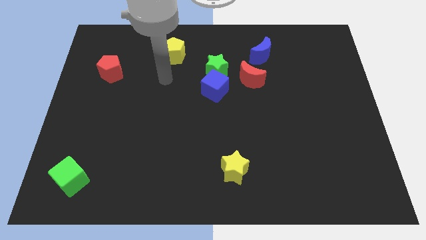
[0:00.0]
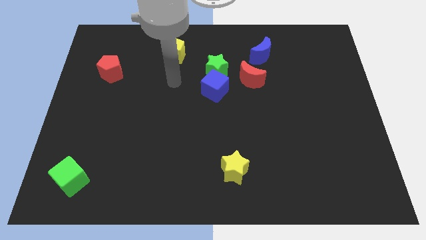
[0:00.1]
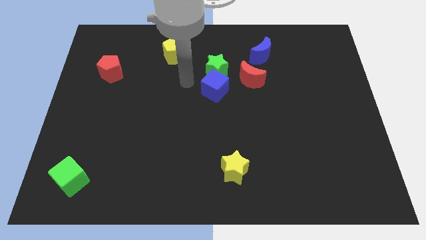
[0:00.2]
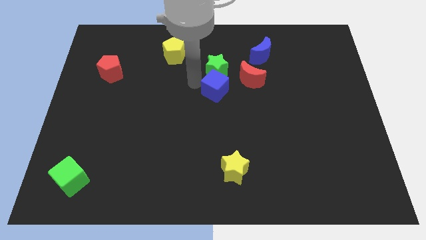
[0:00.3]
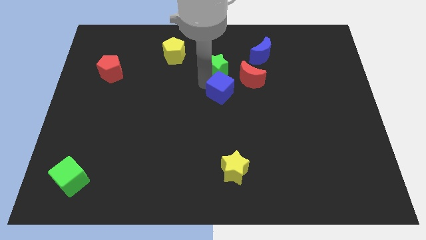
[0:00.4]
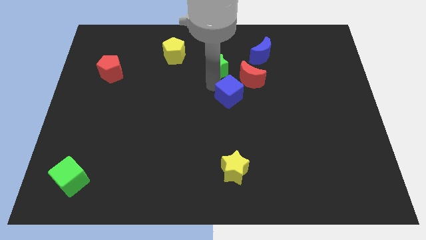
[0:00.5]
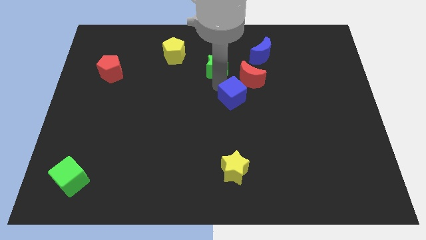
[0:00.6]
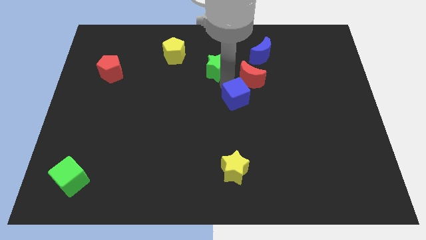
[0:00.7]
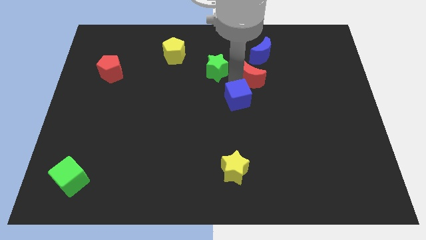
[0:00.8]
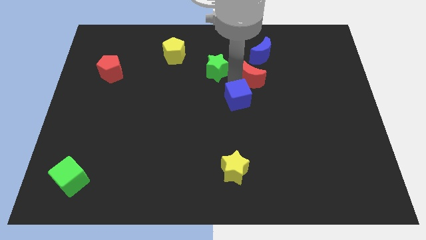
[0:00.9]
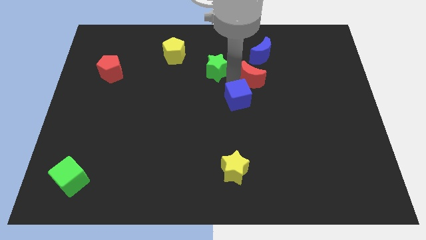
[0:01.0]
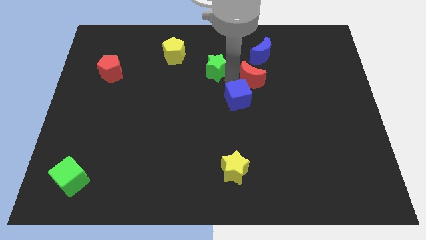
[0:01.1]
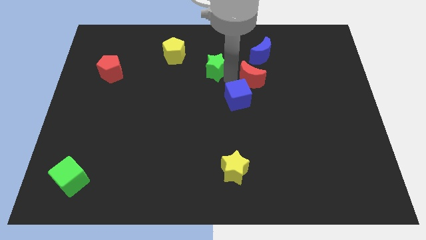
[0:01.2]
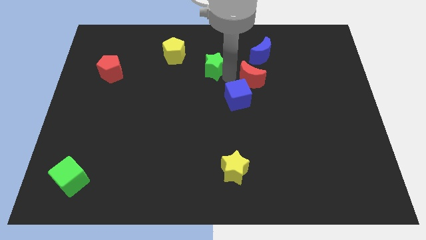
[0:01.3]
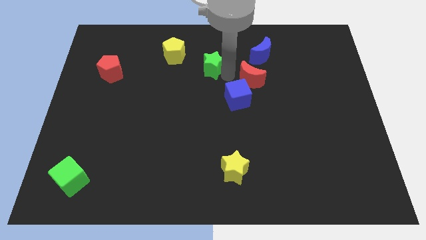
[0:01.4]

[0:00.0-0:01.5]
pull the green star apart from the blue cube and red moon

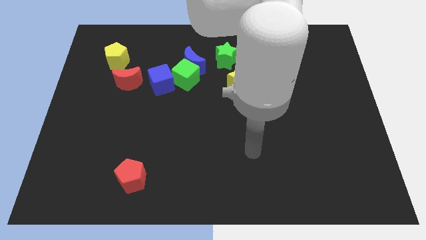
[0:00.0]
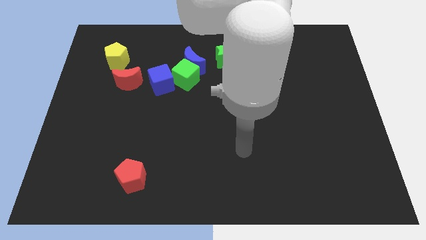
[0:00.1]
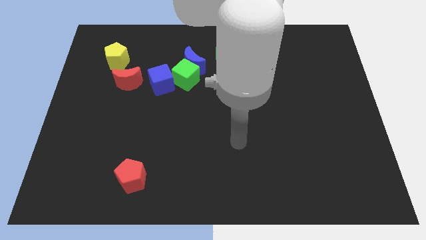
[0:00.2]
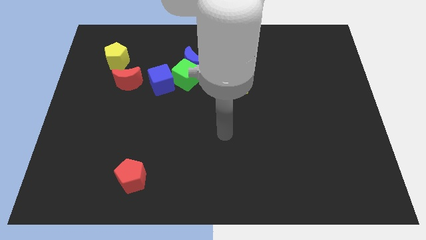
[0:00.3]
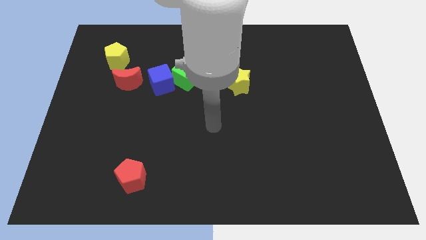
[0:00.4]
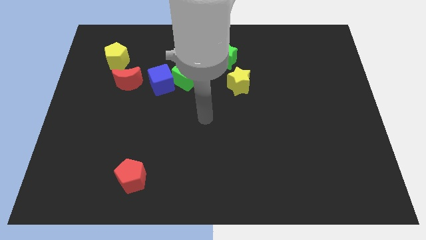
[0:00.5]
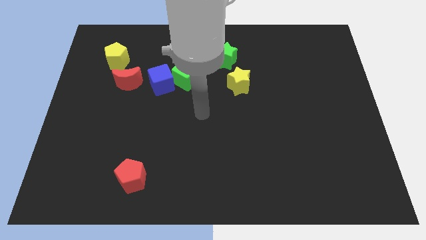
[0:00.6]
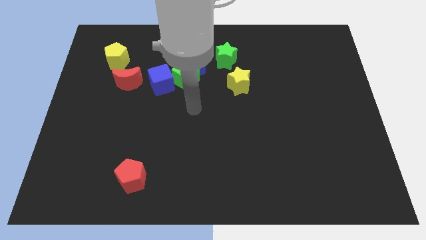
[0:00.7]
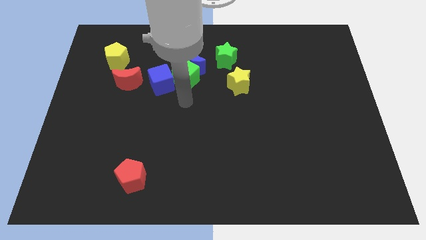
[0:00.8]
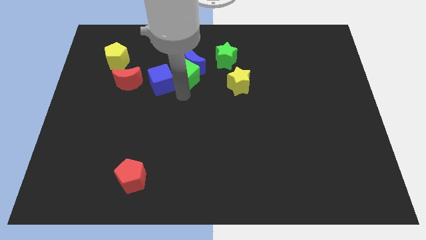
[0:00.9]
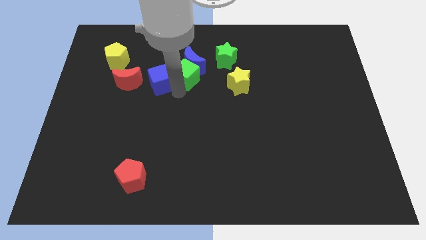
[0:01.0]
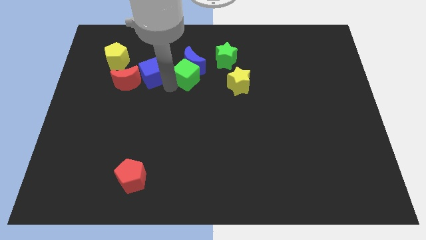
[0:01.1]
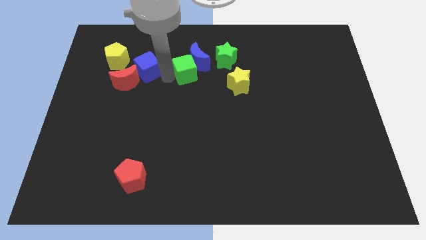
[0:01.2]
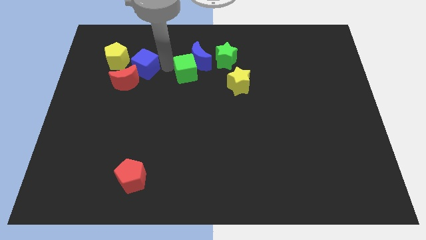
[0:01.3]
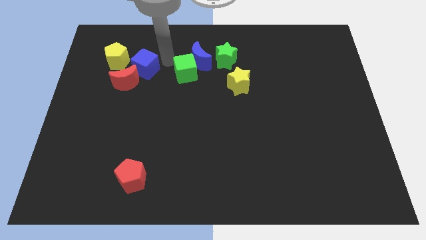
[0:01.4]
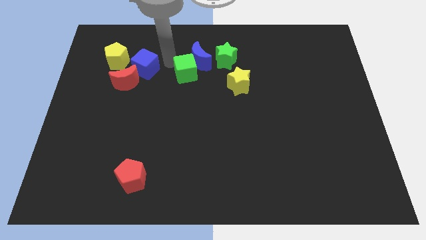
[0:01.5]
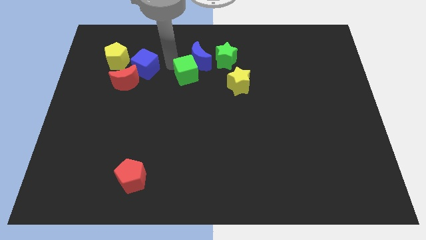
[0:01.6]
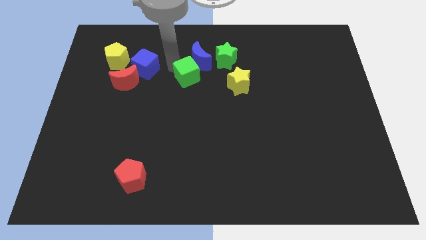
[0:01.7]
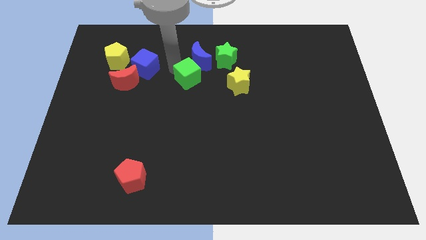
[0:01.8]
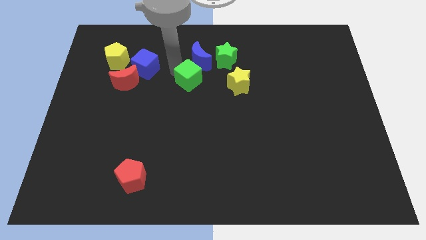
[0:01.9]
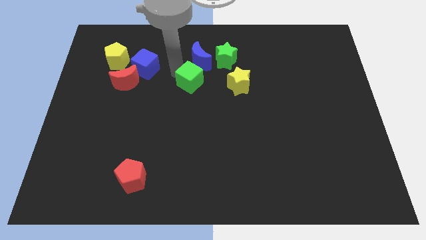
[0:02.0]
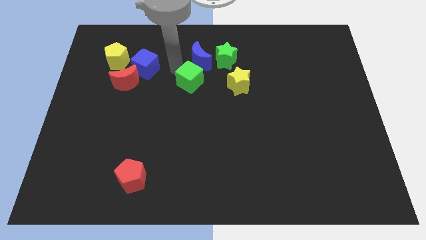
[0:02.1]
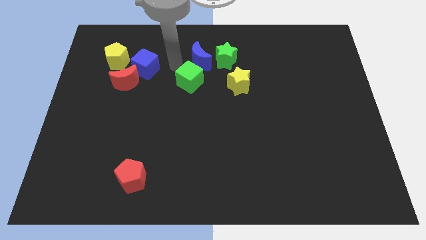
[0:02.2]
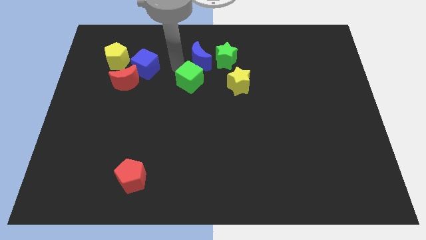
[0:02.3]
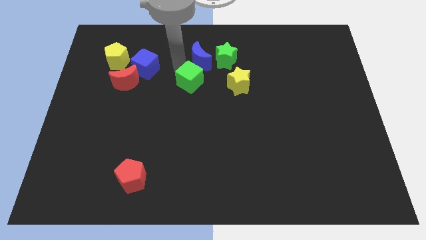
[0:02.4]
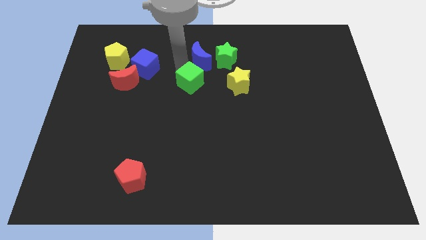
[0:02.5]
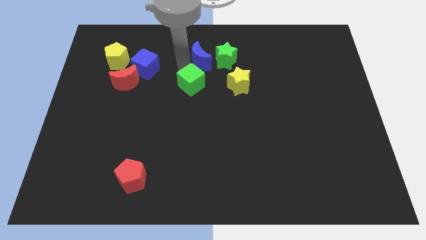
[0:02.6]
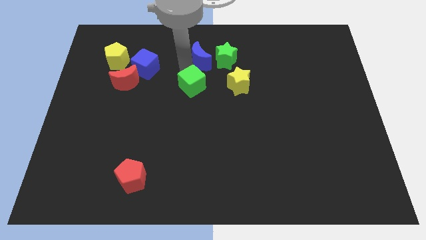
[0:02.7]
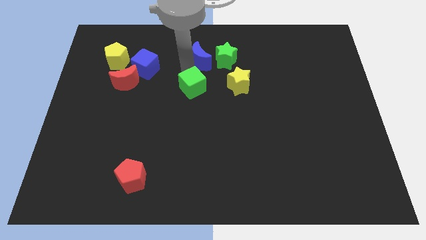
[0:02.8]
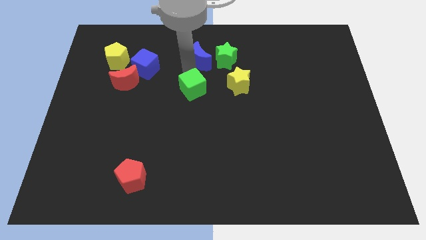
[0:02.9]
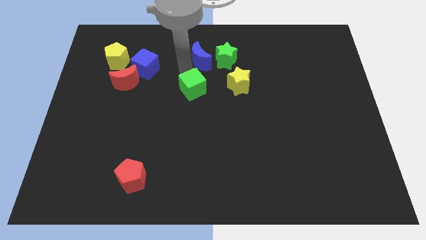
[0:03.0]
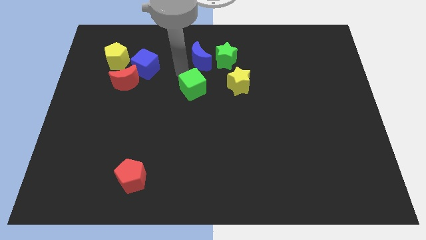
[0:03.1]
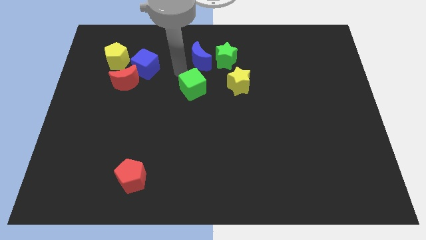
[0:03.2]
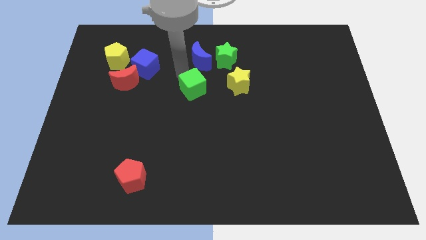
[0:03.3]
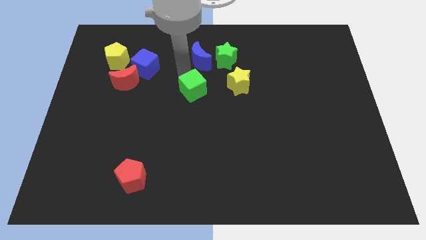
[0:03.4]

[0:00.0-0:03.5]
pull the green cube apart from the blue moon and blue cube

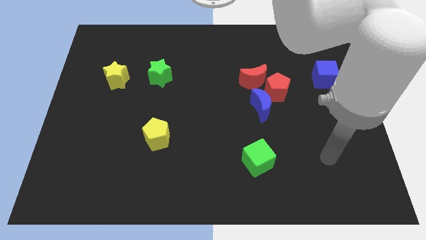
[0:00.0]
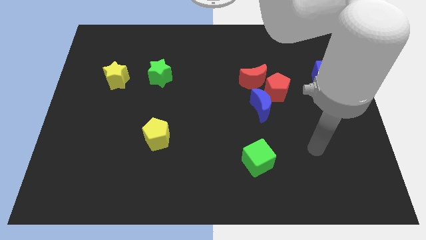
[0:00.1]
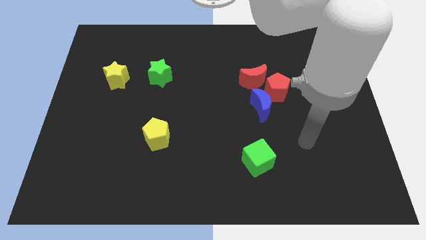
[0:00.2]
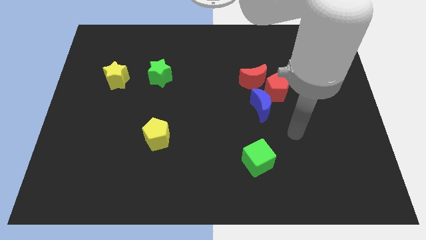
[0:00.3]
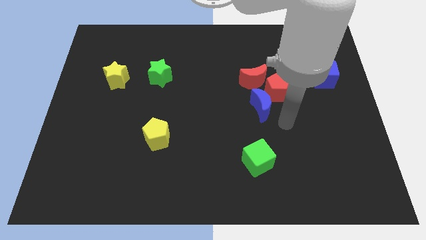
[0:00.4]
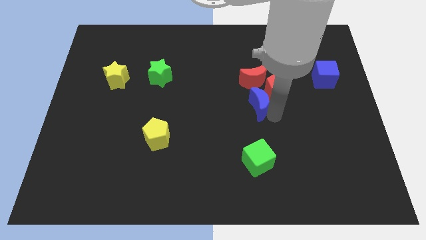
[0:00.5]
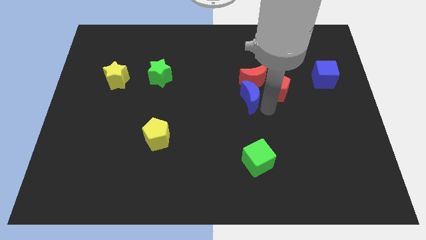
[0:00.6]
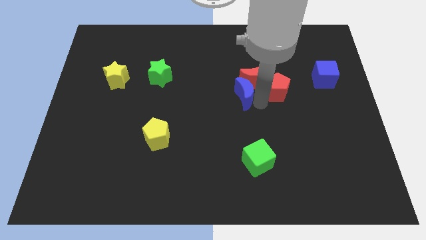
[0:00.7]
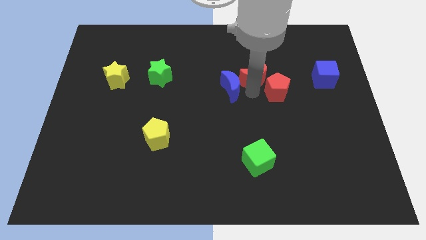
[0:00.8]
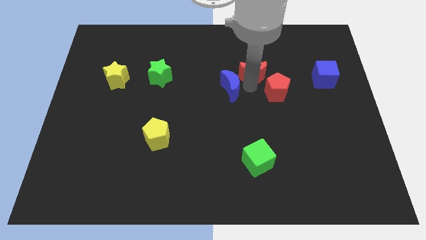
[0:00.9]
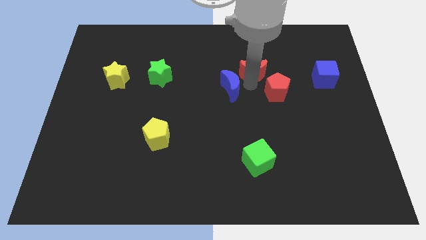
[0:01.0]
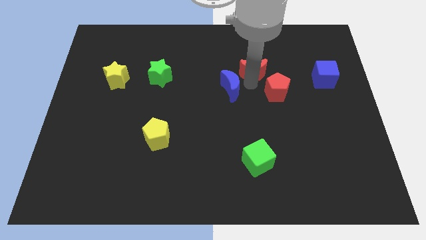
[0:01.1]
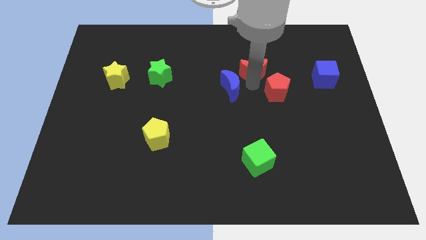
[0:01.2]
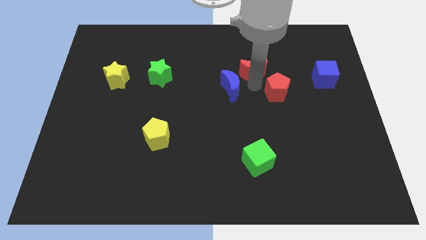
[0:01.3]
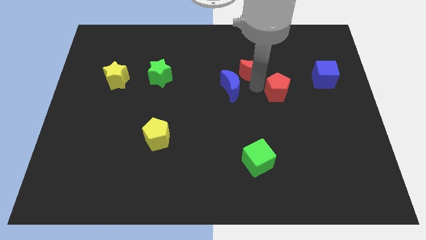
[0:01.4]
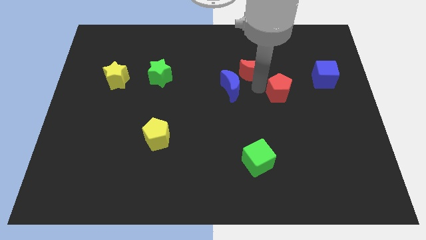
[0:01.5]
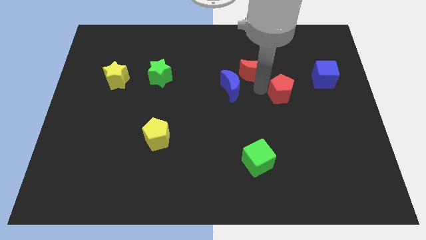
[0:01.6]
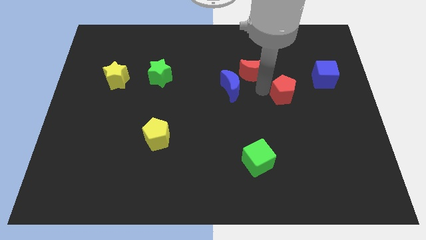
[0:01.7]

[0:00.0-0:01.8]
pull the red pentagon apart from the red moon and blue moon

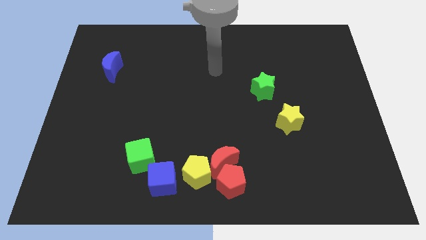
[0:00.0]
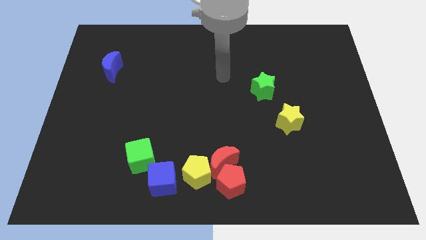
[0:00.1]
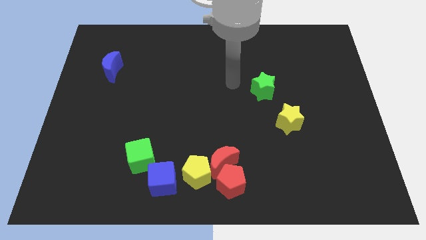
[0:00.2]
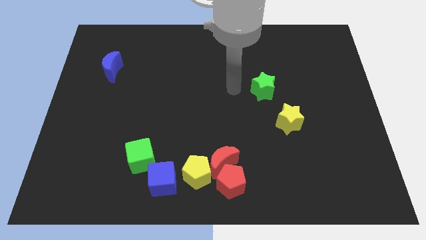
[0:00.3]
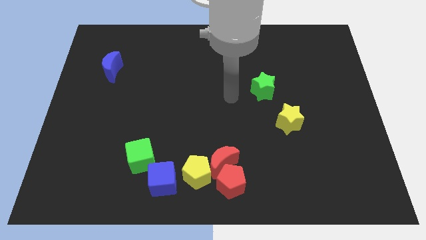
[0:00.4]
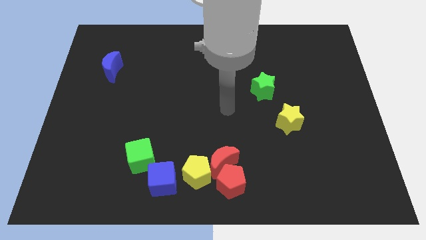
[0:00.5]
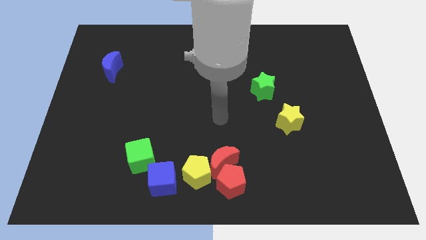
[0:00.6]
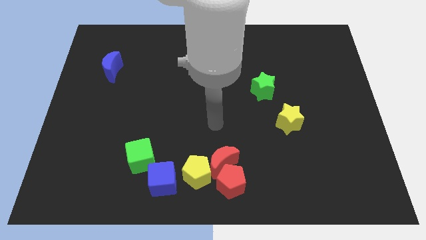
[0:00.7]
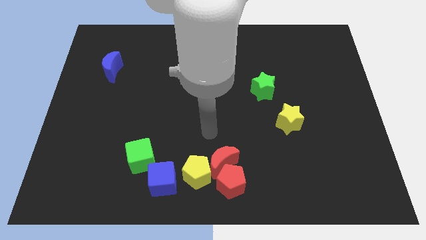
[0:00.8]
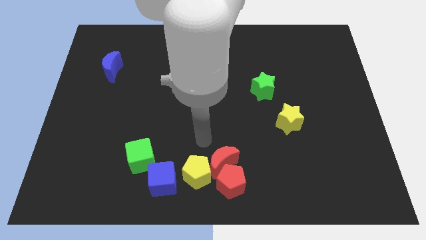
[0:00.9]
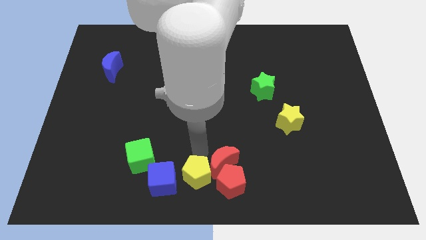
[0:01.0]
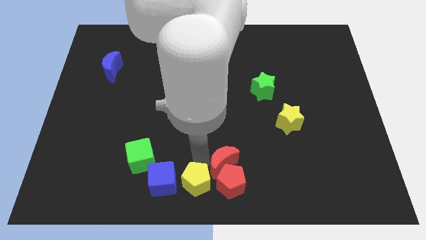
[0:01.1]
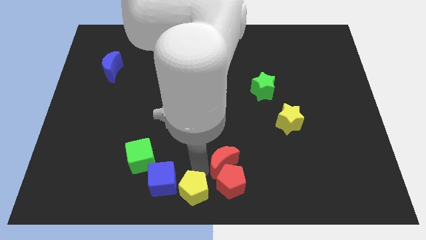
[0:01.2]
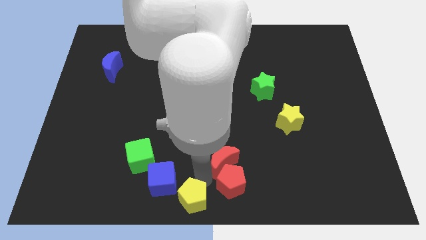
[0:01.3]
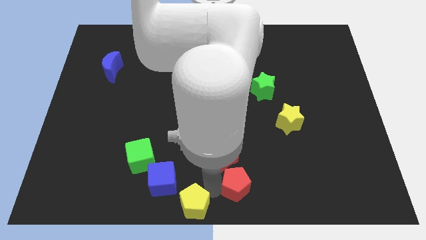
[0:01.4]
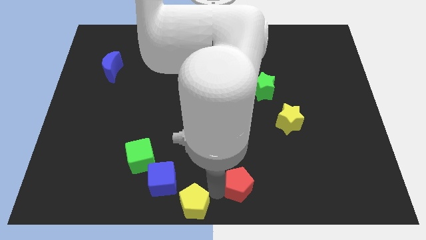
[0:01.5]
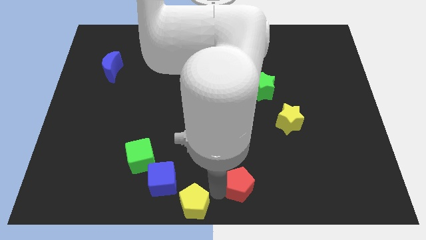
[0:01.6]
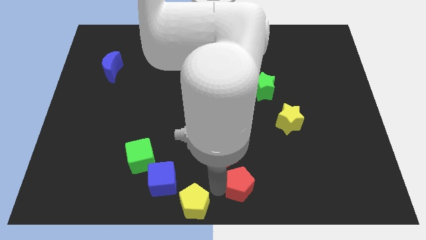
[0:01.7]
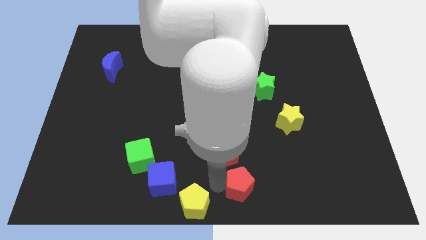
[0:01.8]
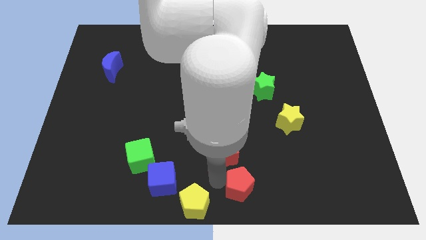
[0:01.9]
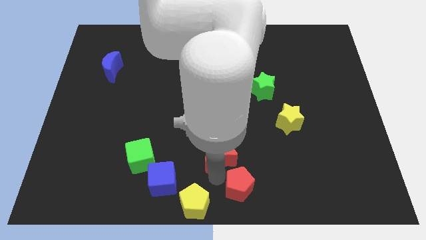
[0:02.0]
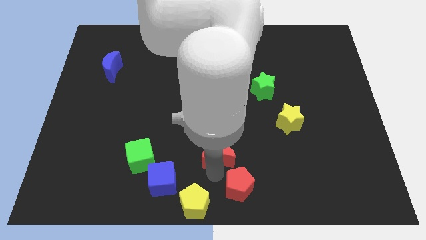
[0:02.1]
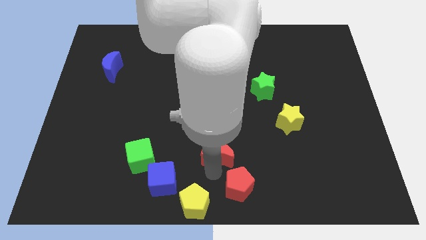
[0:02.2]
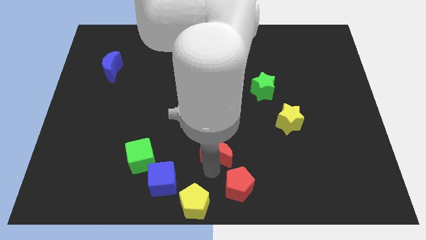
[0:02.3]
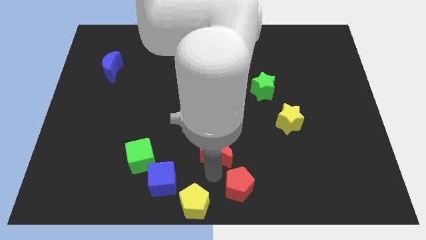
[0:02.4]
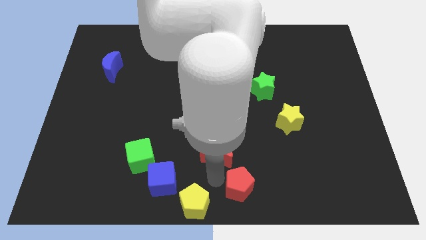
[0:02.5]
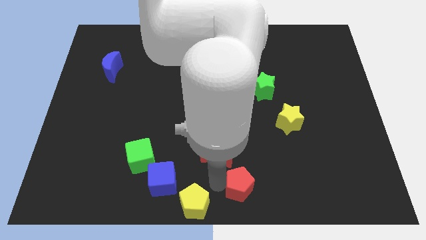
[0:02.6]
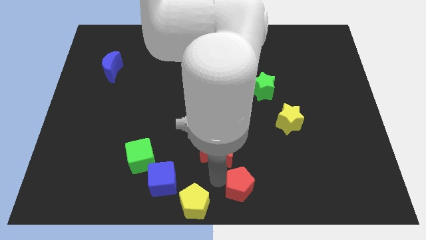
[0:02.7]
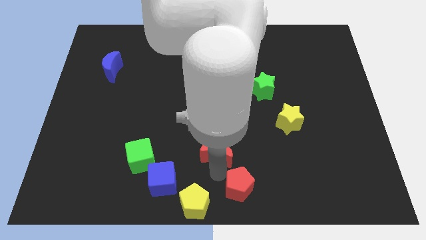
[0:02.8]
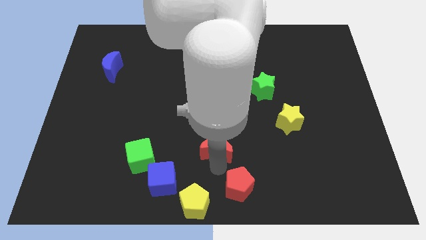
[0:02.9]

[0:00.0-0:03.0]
separate the red moon from the red pentagon and yellow pentagon
